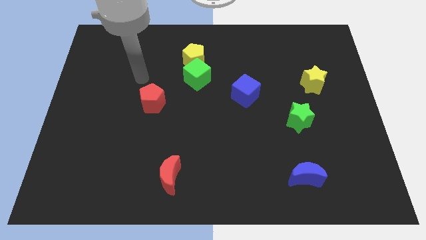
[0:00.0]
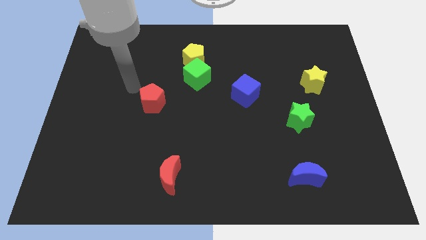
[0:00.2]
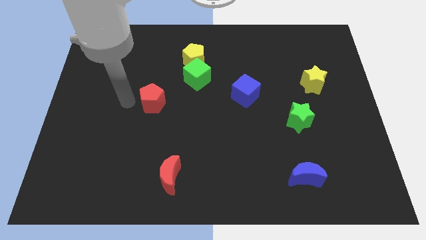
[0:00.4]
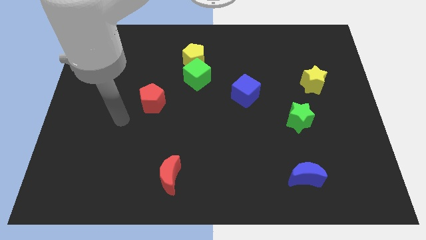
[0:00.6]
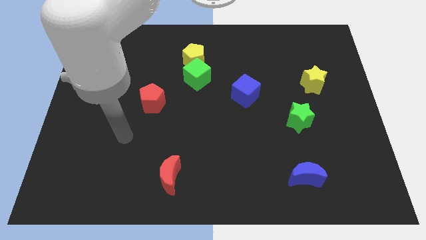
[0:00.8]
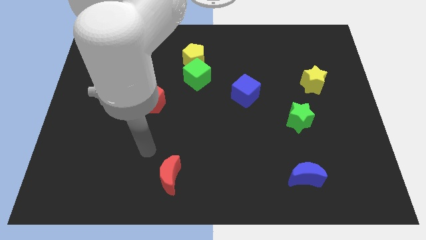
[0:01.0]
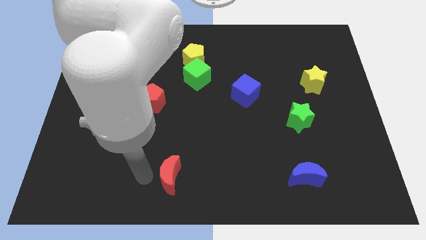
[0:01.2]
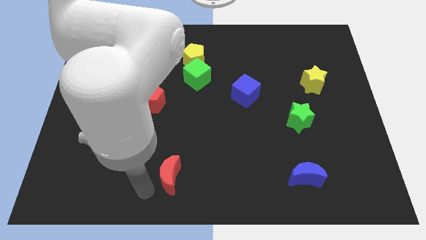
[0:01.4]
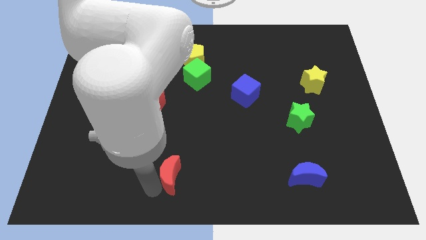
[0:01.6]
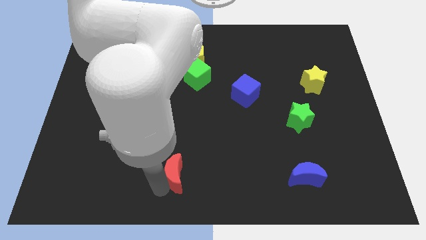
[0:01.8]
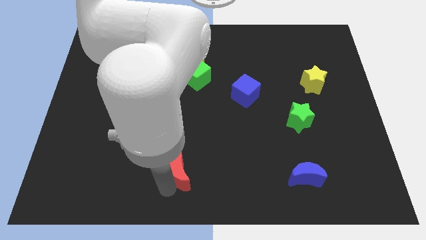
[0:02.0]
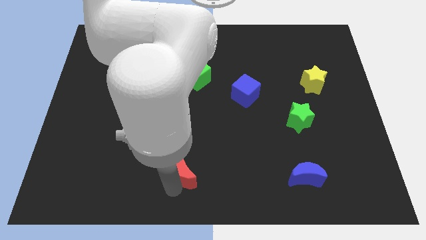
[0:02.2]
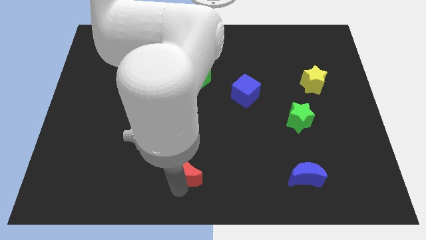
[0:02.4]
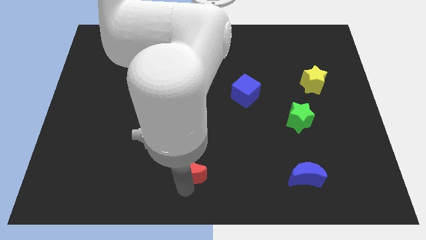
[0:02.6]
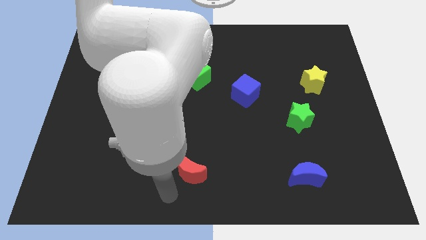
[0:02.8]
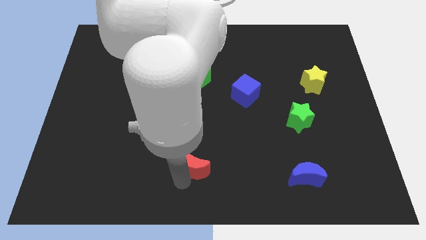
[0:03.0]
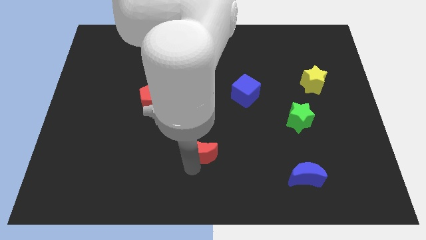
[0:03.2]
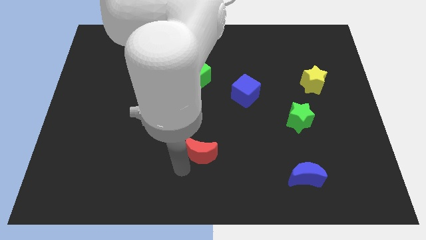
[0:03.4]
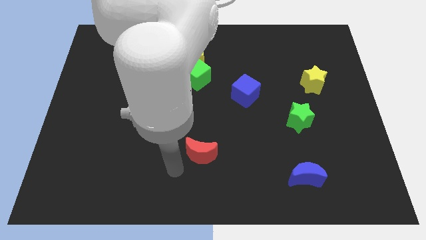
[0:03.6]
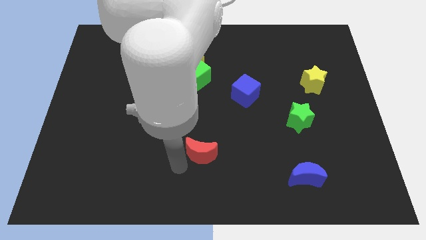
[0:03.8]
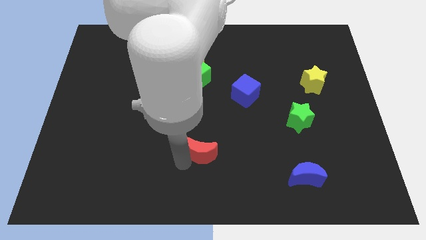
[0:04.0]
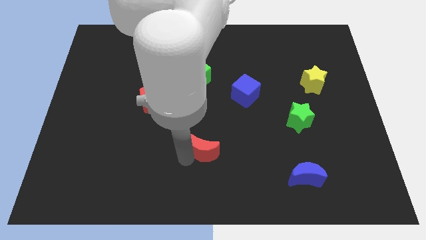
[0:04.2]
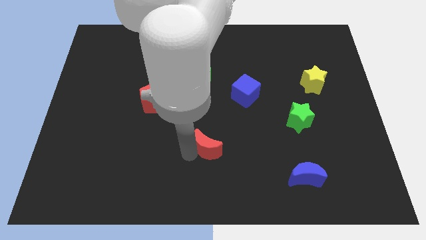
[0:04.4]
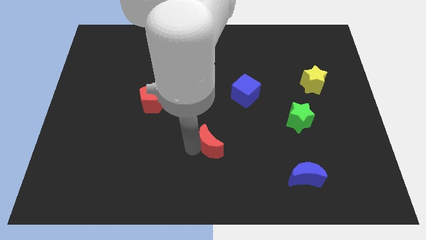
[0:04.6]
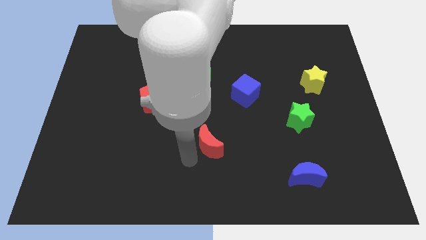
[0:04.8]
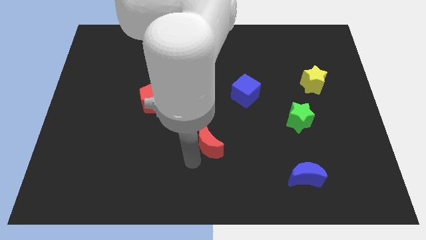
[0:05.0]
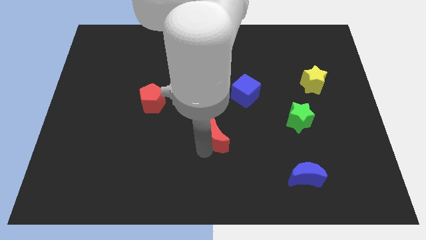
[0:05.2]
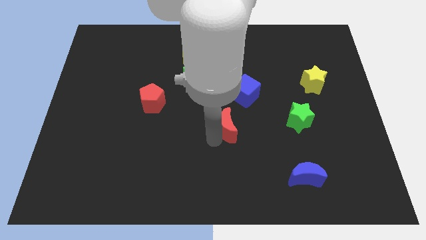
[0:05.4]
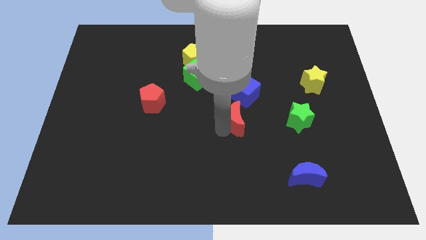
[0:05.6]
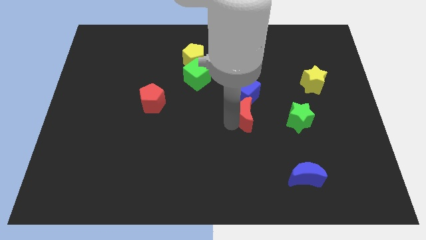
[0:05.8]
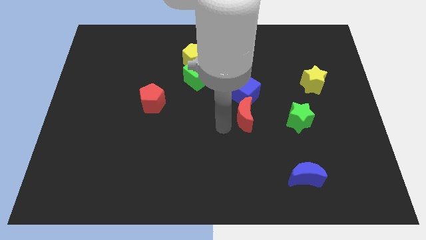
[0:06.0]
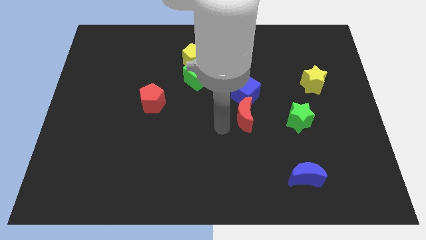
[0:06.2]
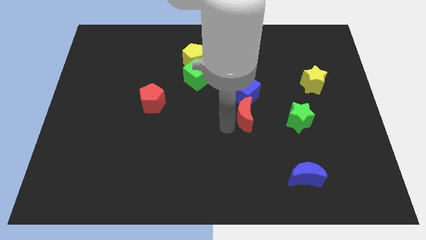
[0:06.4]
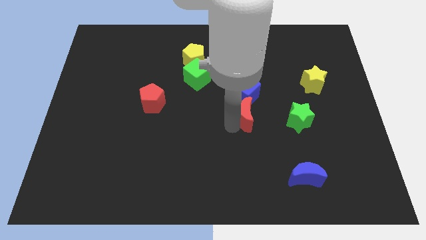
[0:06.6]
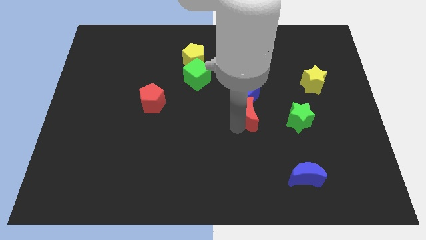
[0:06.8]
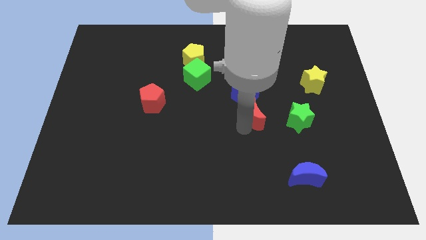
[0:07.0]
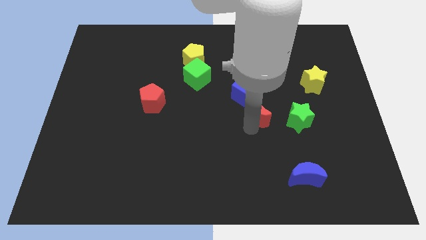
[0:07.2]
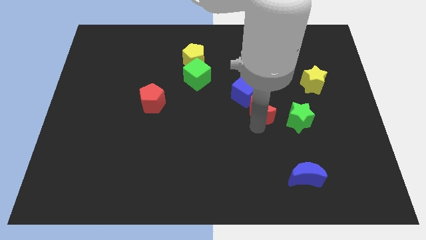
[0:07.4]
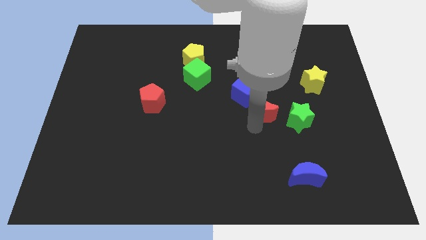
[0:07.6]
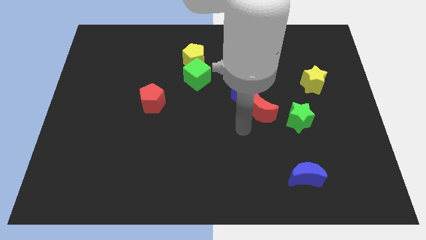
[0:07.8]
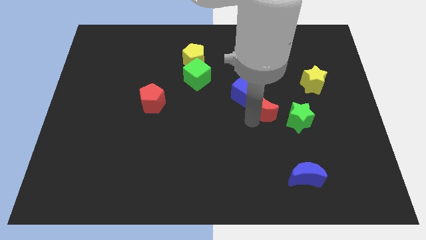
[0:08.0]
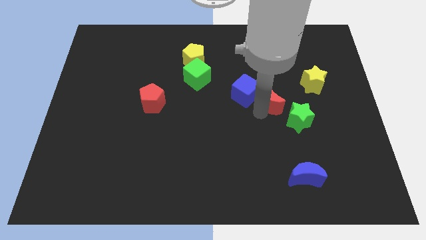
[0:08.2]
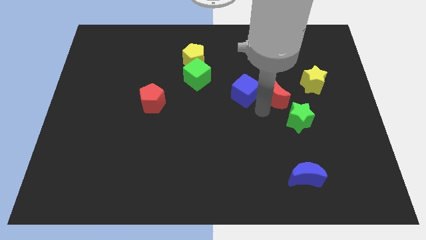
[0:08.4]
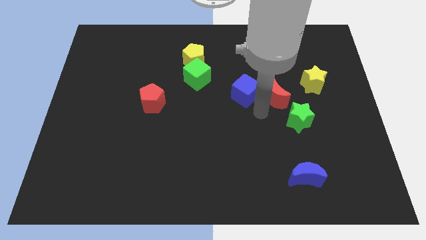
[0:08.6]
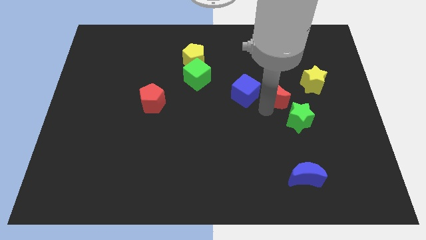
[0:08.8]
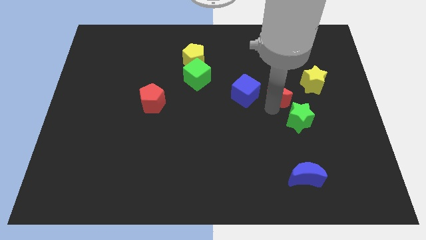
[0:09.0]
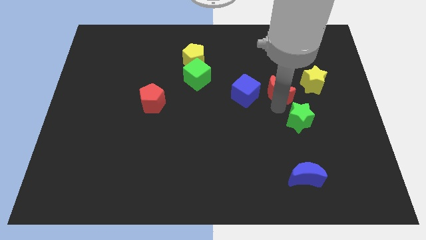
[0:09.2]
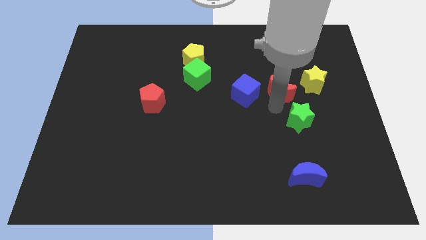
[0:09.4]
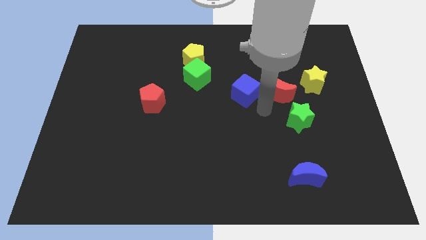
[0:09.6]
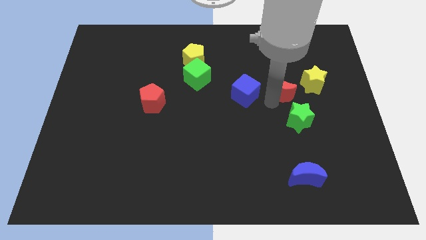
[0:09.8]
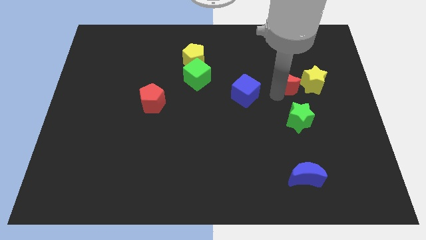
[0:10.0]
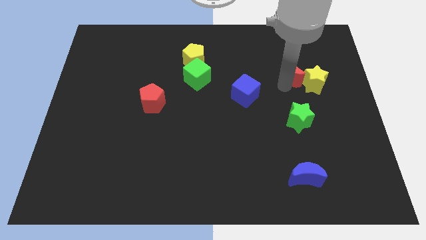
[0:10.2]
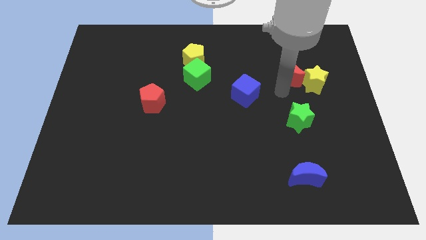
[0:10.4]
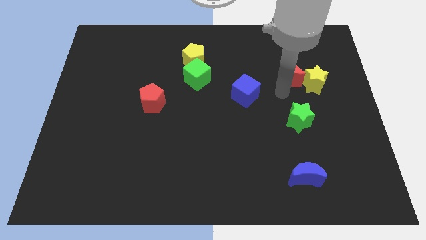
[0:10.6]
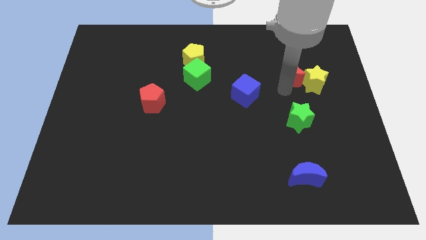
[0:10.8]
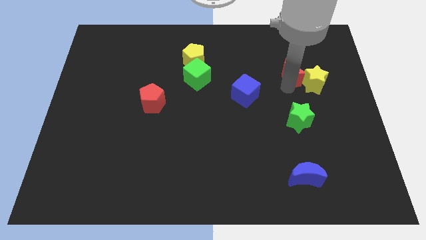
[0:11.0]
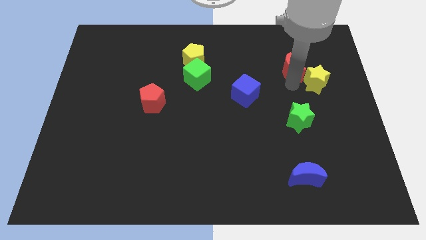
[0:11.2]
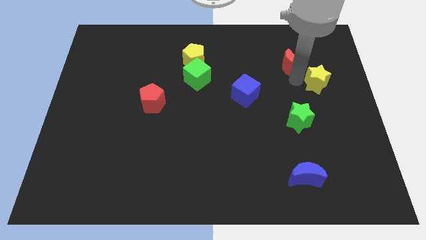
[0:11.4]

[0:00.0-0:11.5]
move the red moon to the top side of the yellow star
